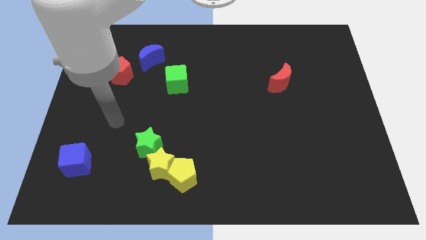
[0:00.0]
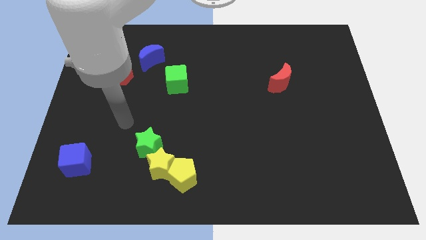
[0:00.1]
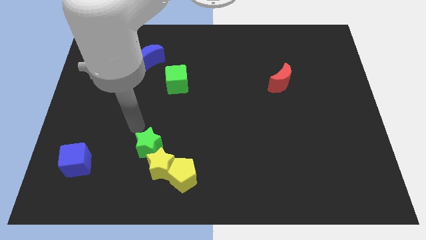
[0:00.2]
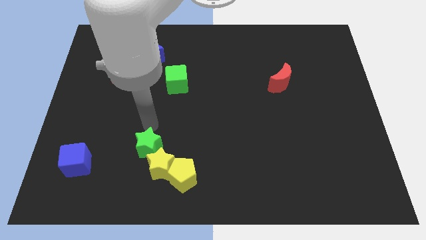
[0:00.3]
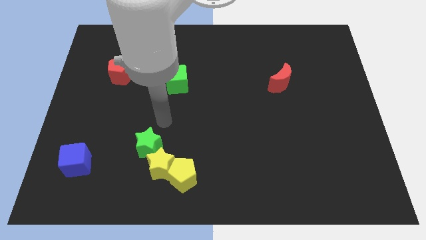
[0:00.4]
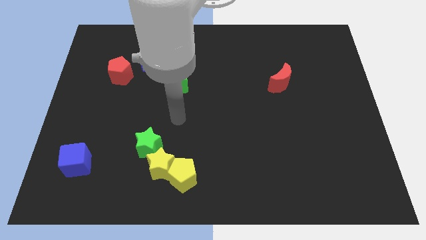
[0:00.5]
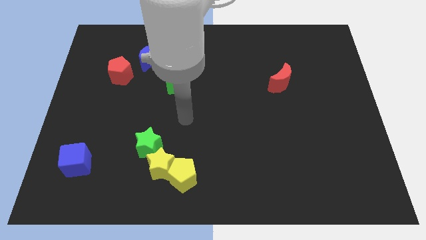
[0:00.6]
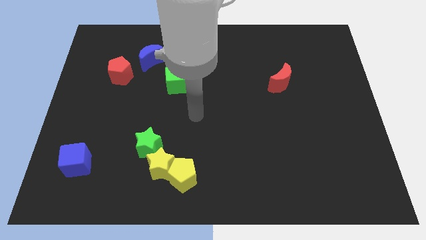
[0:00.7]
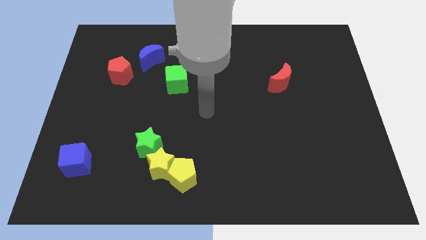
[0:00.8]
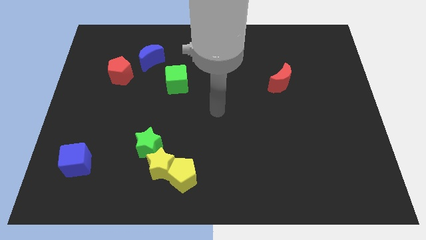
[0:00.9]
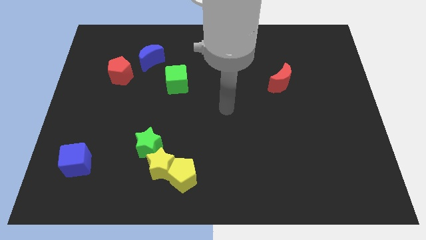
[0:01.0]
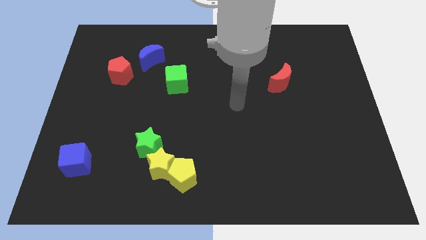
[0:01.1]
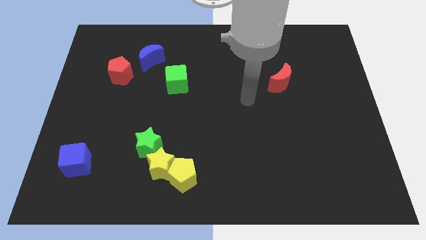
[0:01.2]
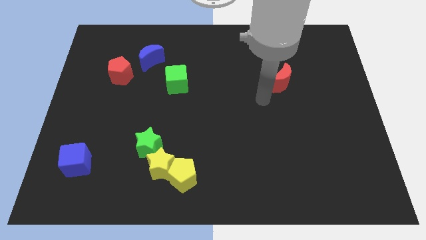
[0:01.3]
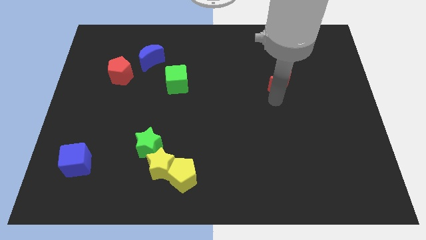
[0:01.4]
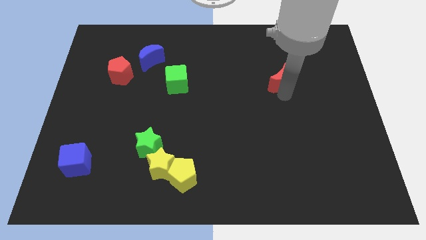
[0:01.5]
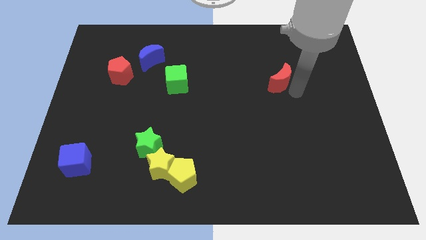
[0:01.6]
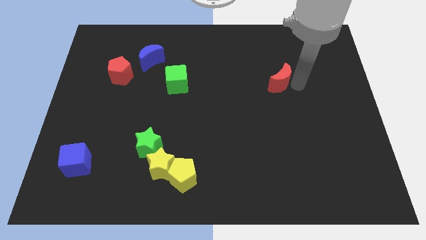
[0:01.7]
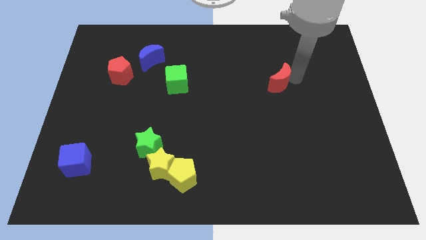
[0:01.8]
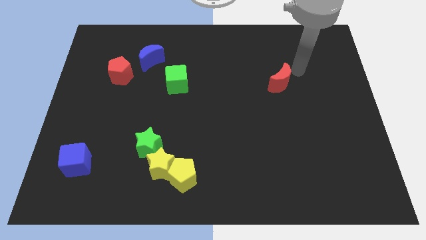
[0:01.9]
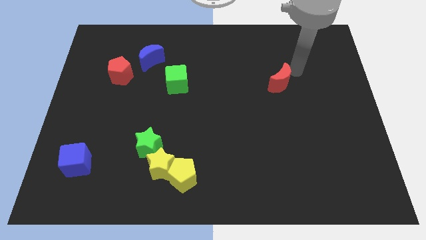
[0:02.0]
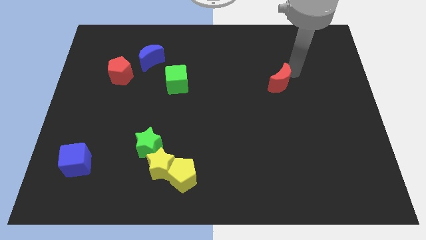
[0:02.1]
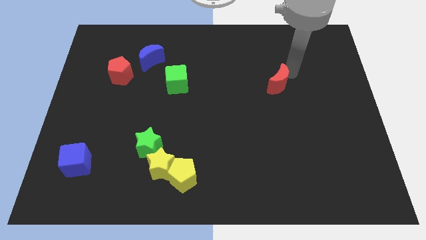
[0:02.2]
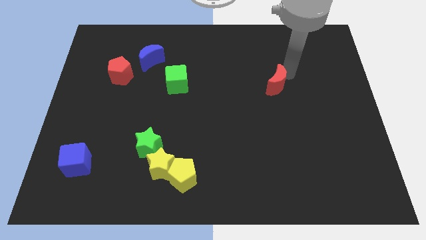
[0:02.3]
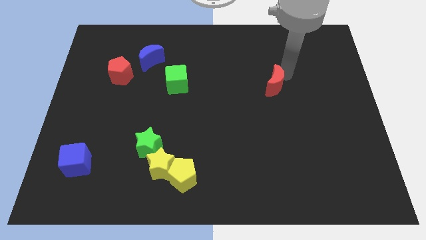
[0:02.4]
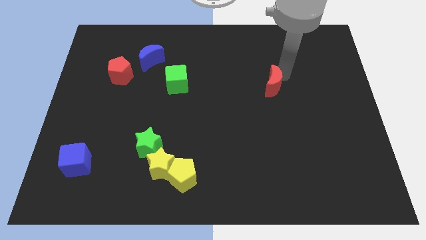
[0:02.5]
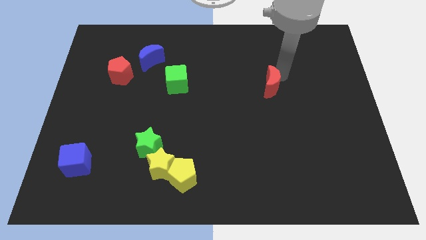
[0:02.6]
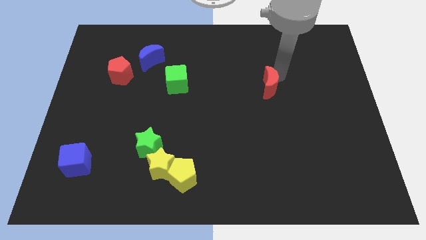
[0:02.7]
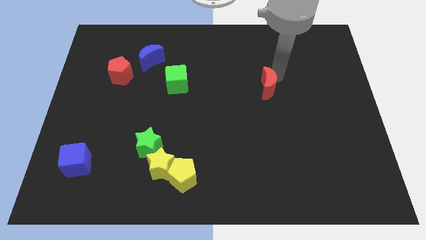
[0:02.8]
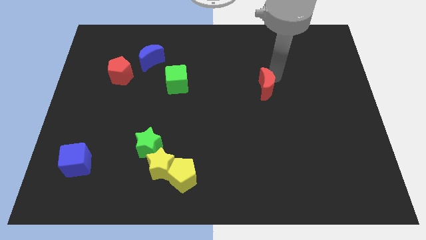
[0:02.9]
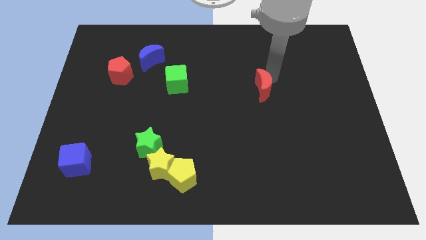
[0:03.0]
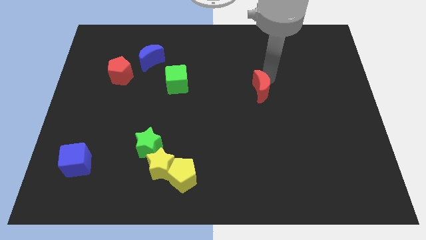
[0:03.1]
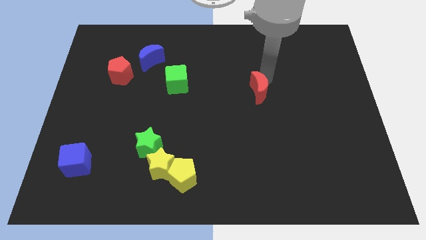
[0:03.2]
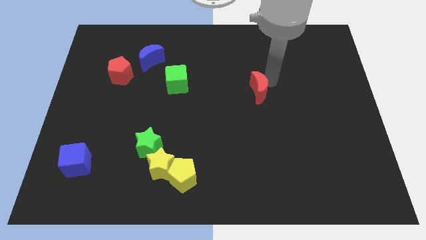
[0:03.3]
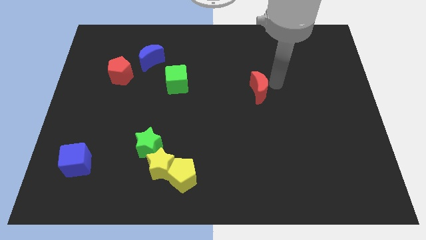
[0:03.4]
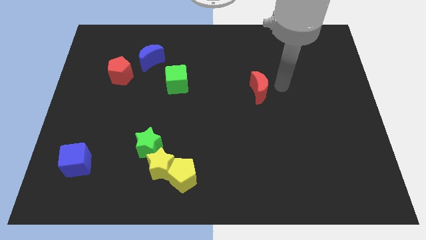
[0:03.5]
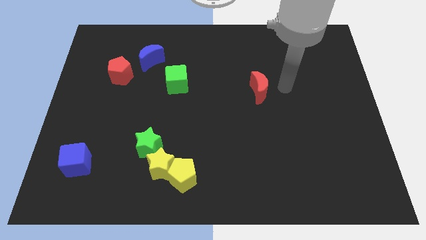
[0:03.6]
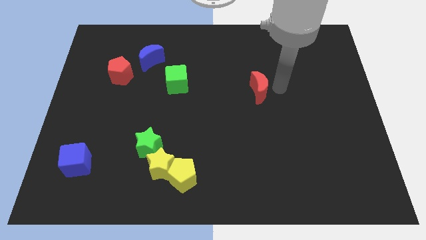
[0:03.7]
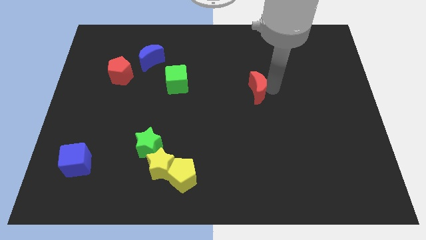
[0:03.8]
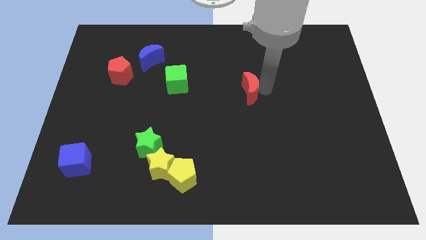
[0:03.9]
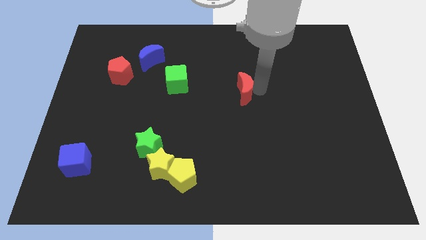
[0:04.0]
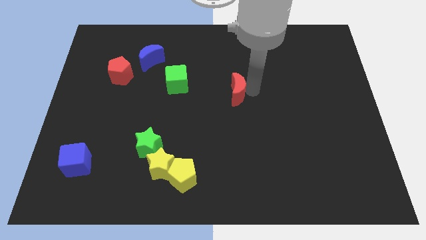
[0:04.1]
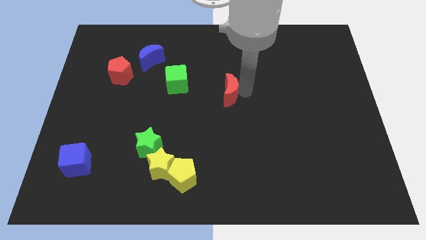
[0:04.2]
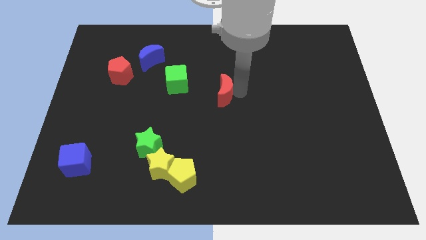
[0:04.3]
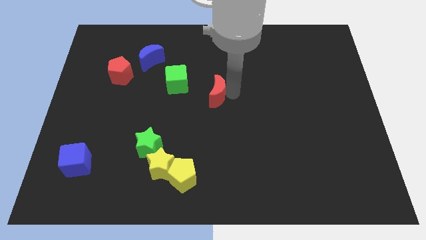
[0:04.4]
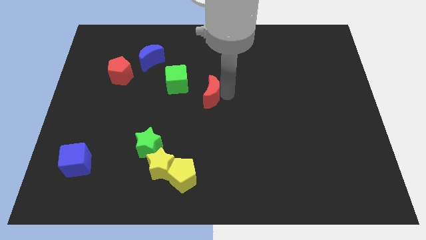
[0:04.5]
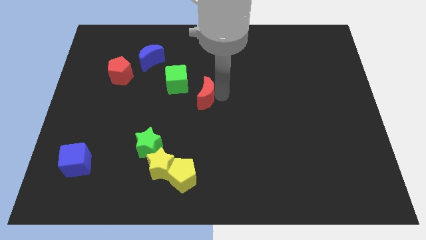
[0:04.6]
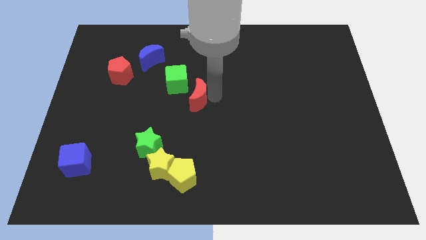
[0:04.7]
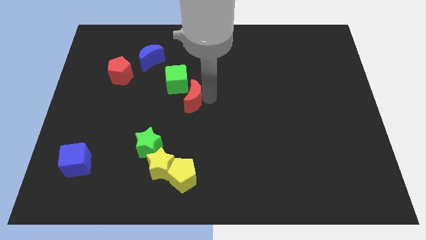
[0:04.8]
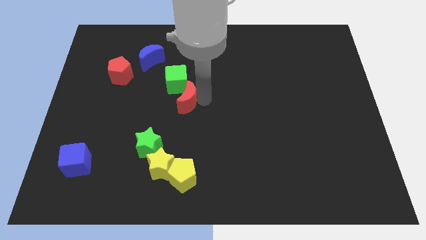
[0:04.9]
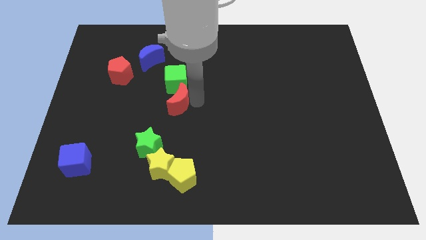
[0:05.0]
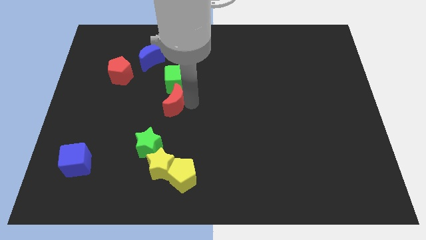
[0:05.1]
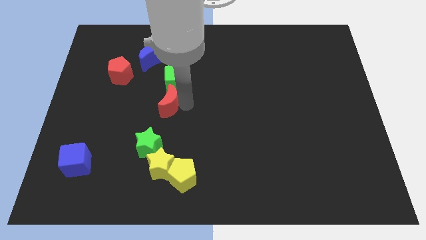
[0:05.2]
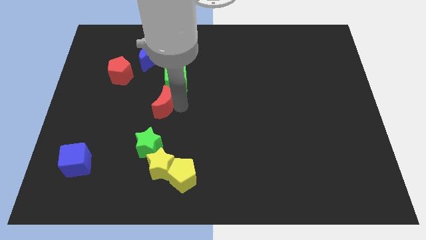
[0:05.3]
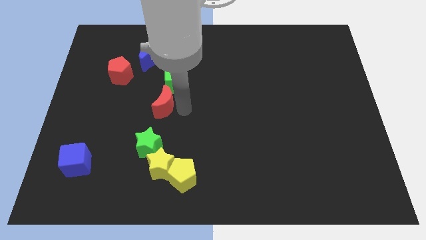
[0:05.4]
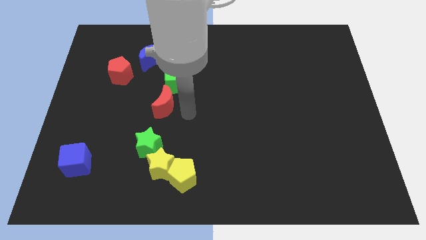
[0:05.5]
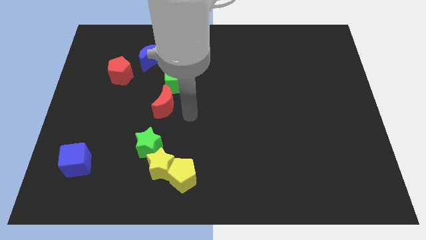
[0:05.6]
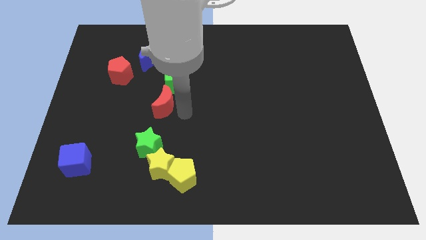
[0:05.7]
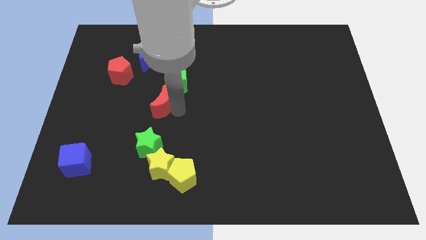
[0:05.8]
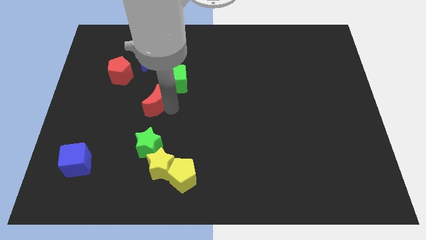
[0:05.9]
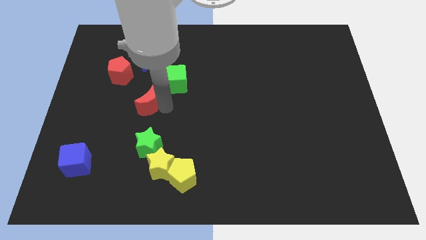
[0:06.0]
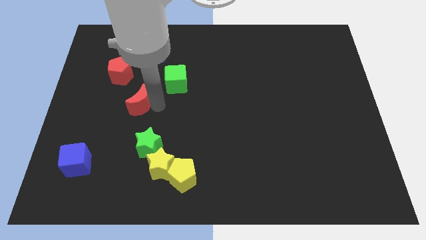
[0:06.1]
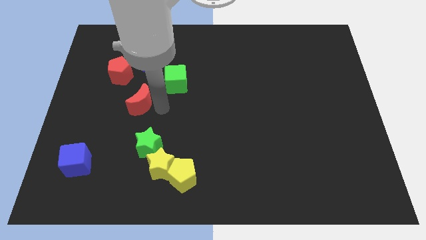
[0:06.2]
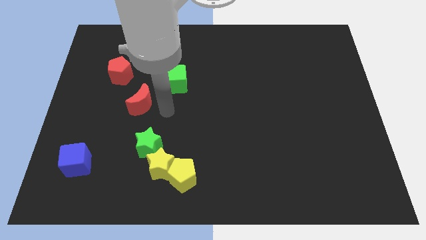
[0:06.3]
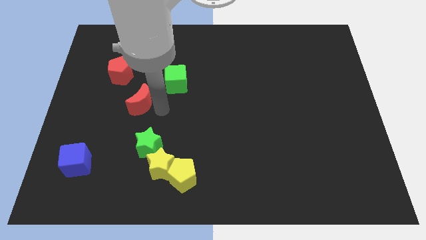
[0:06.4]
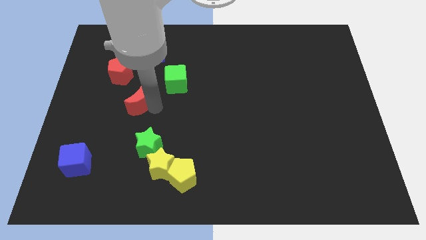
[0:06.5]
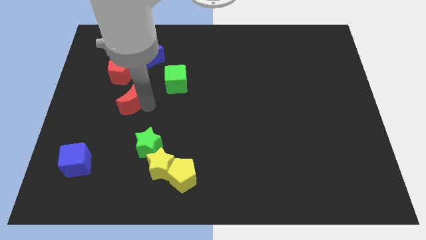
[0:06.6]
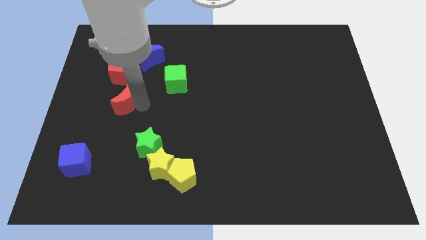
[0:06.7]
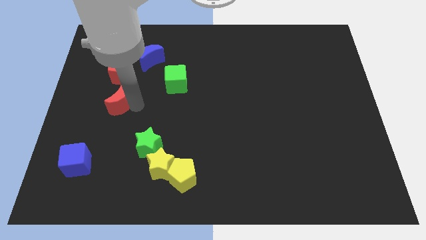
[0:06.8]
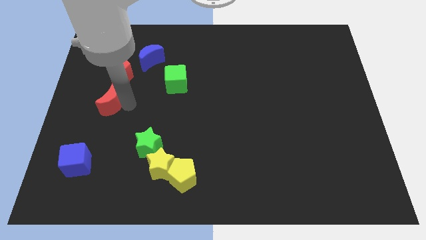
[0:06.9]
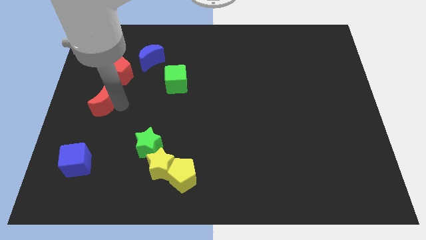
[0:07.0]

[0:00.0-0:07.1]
push the red moon to the left side
